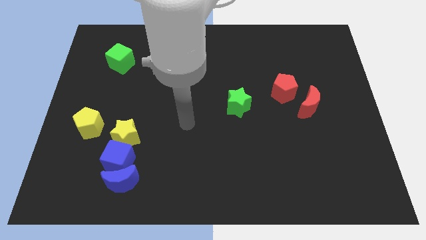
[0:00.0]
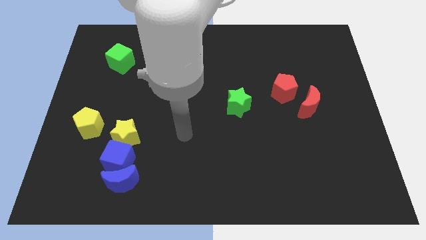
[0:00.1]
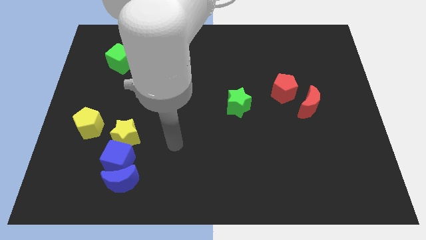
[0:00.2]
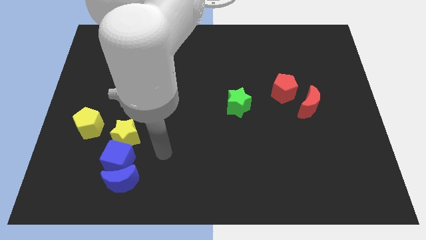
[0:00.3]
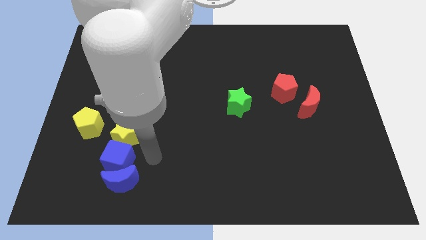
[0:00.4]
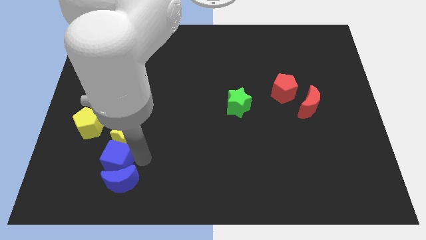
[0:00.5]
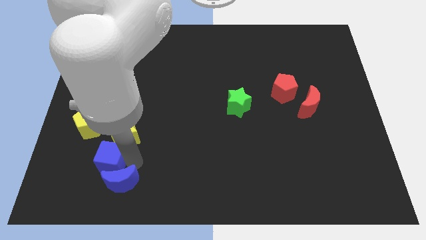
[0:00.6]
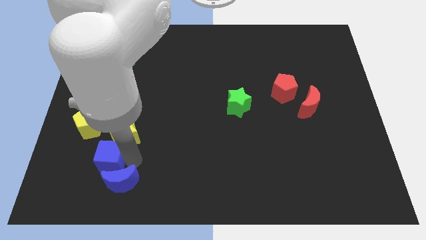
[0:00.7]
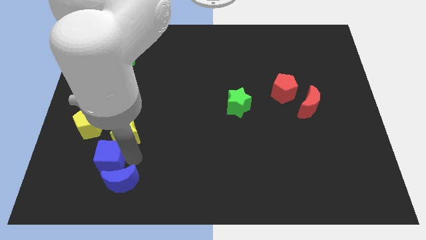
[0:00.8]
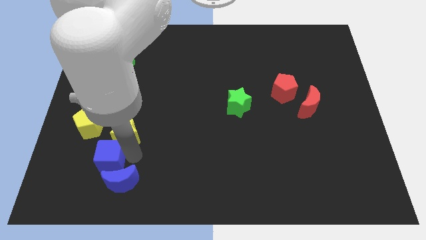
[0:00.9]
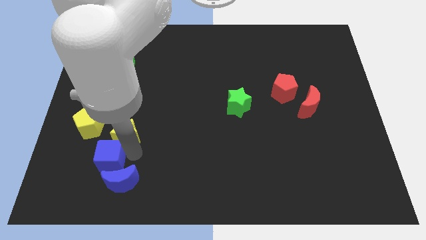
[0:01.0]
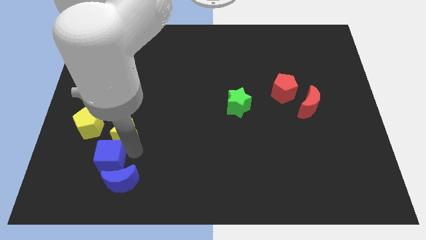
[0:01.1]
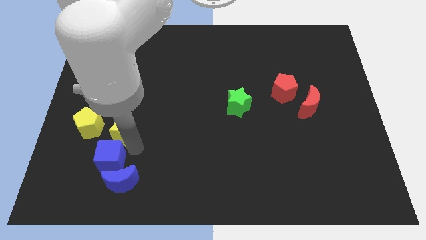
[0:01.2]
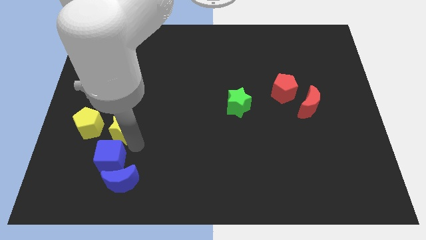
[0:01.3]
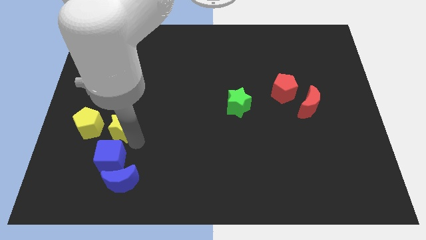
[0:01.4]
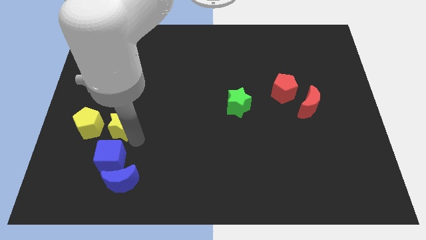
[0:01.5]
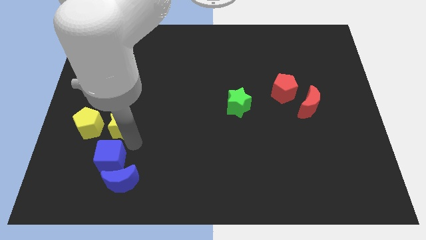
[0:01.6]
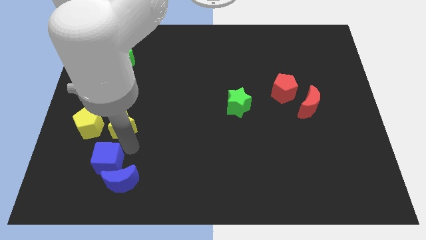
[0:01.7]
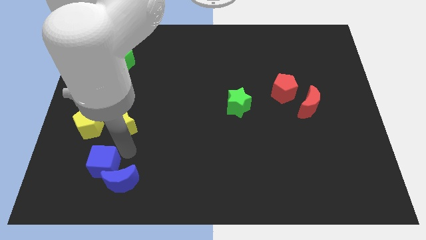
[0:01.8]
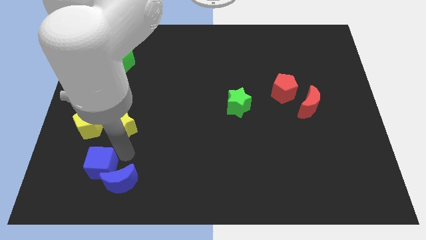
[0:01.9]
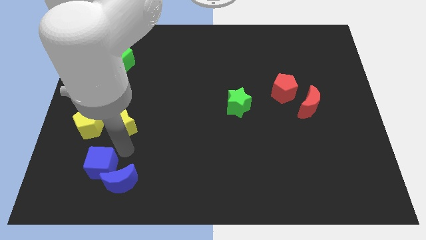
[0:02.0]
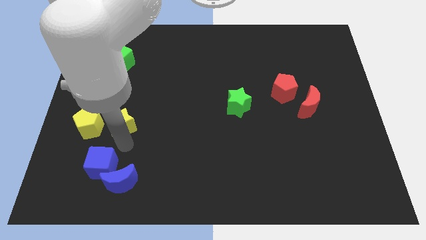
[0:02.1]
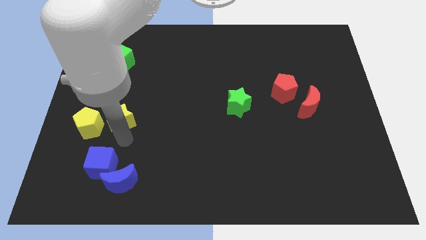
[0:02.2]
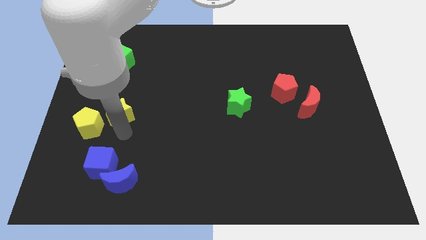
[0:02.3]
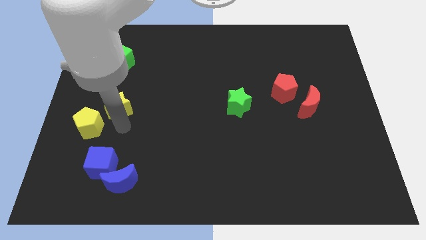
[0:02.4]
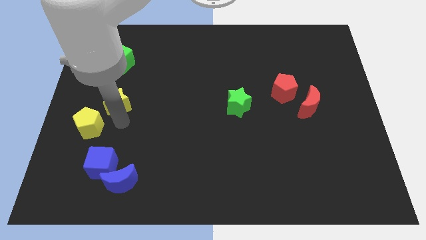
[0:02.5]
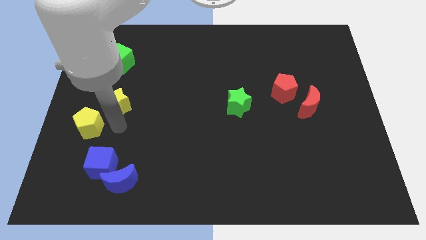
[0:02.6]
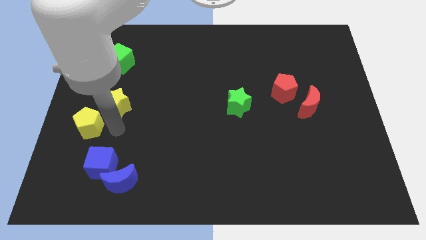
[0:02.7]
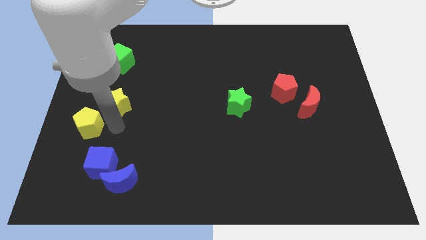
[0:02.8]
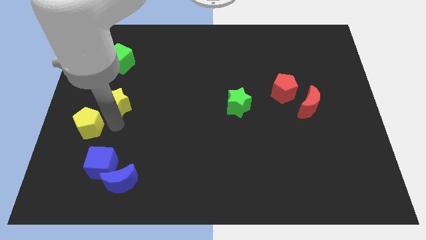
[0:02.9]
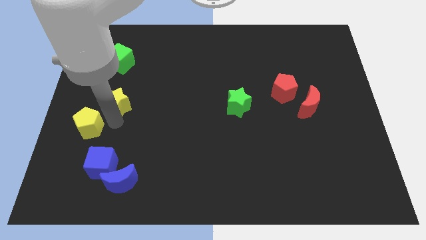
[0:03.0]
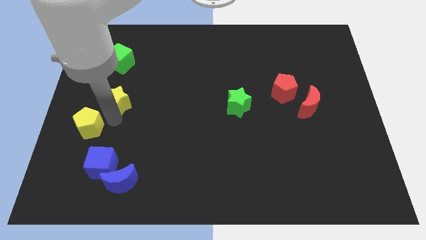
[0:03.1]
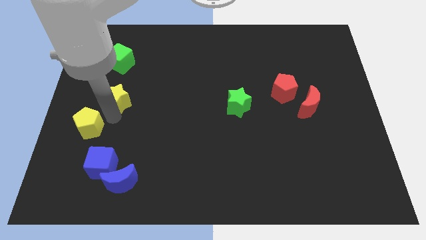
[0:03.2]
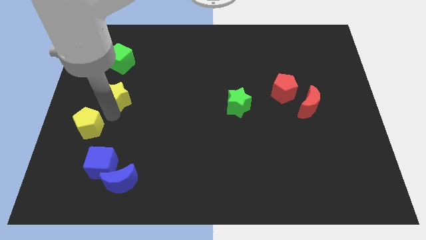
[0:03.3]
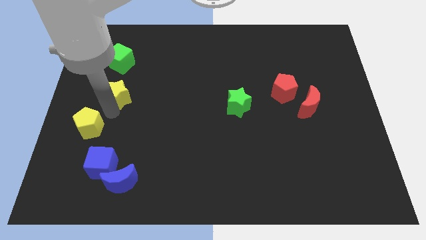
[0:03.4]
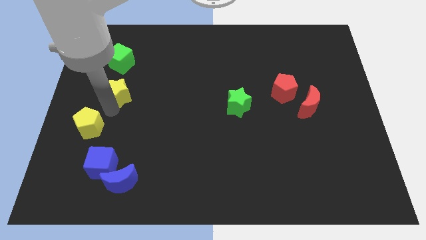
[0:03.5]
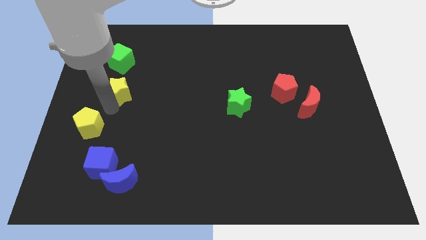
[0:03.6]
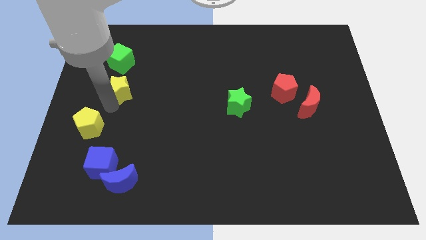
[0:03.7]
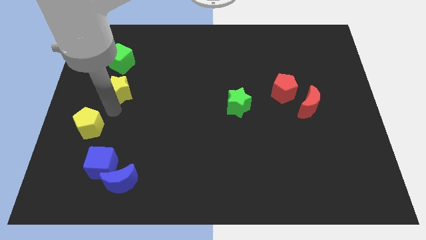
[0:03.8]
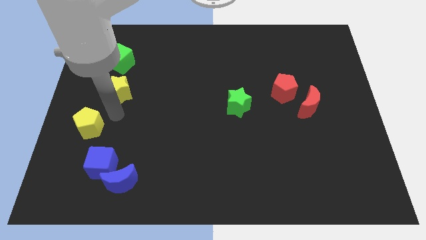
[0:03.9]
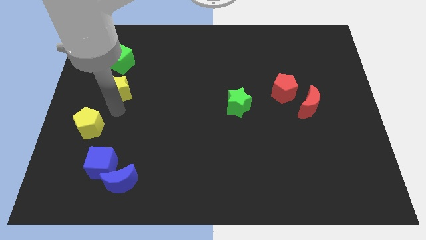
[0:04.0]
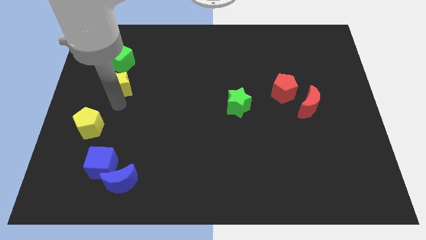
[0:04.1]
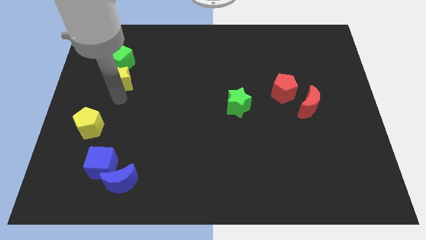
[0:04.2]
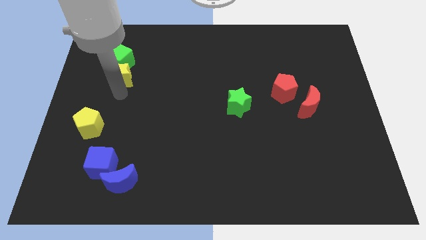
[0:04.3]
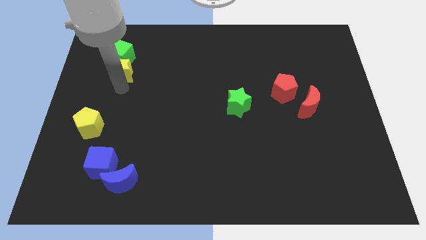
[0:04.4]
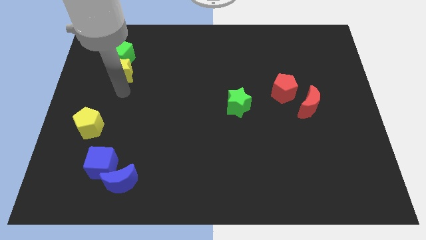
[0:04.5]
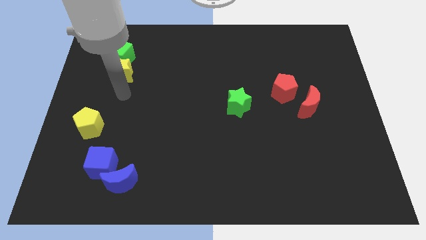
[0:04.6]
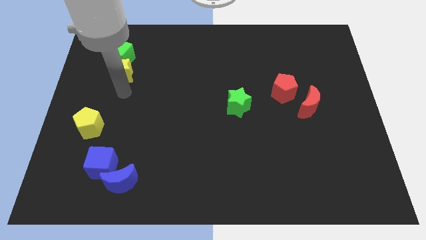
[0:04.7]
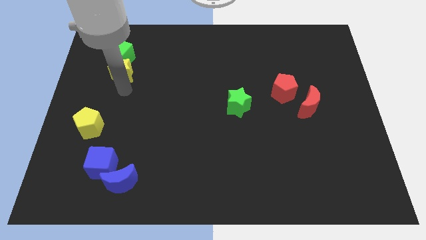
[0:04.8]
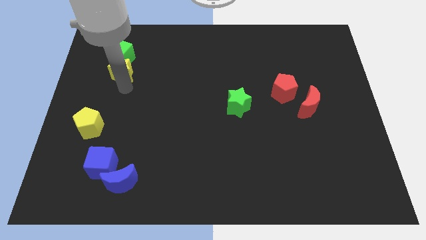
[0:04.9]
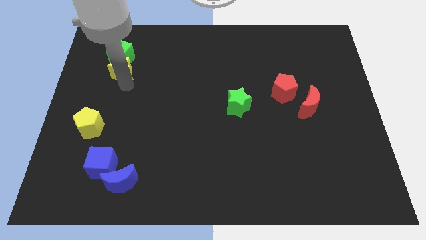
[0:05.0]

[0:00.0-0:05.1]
move the yellow star next to the green cube

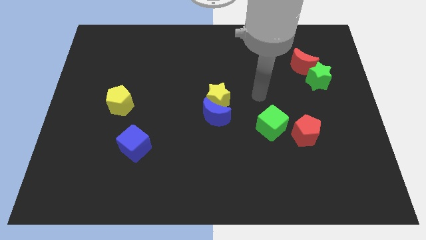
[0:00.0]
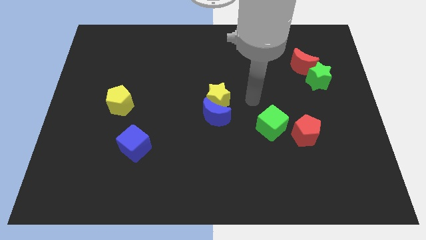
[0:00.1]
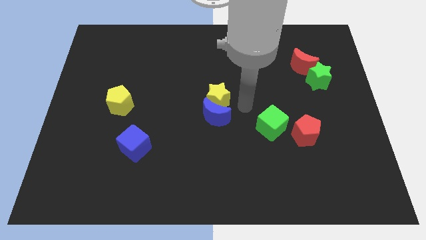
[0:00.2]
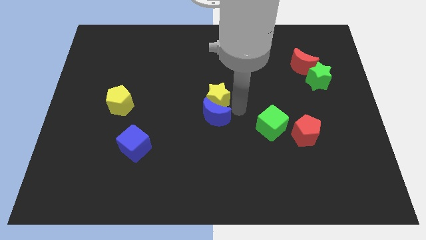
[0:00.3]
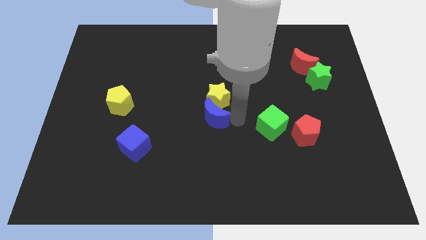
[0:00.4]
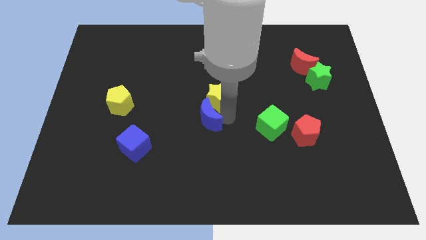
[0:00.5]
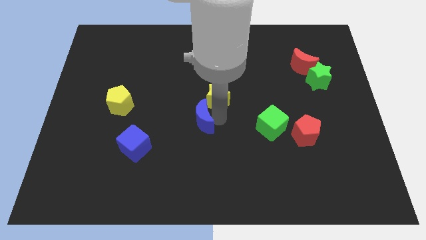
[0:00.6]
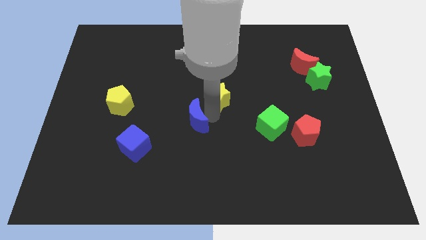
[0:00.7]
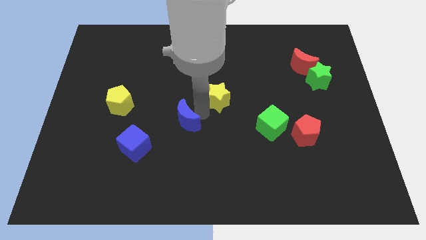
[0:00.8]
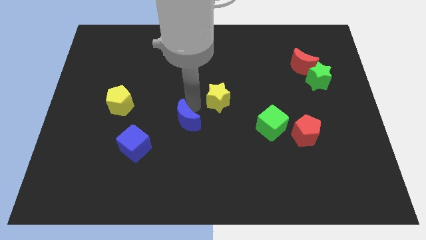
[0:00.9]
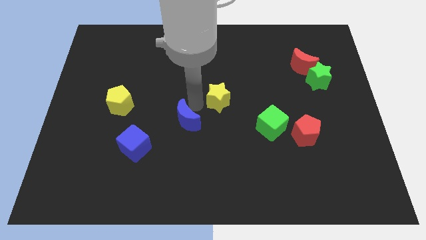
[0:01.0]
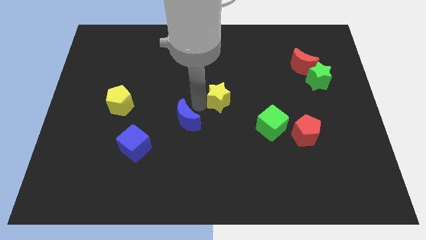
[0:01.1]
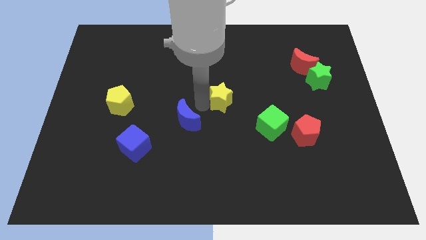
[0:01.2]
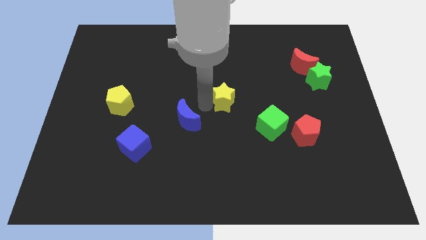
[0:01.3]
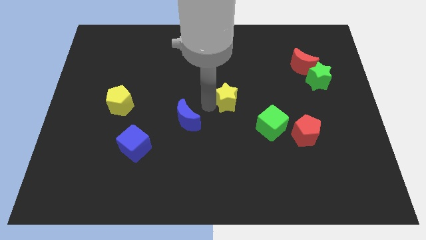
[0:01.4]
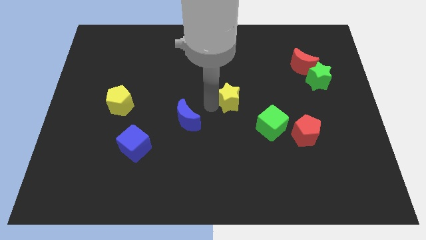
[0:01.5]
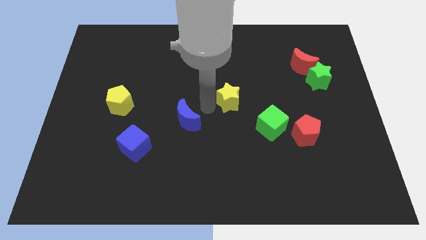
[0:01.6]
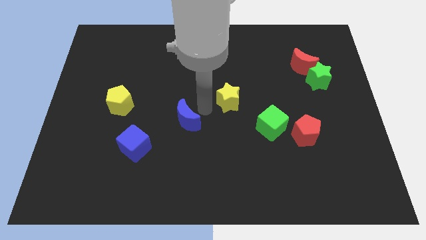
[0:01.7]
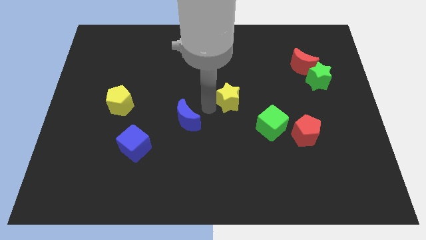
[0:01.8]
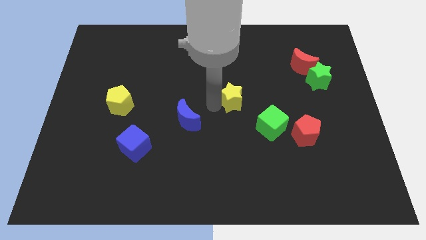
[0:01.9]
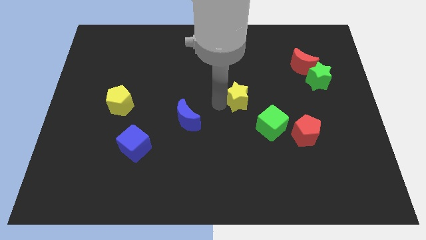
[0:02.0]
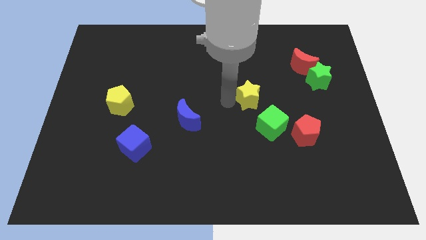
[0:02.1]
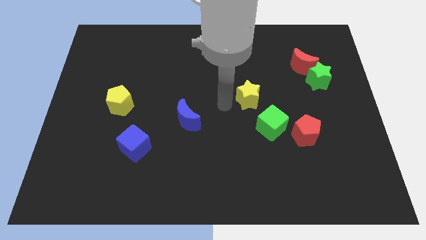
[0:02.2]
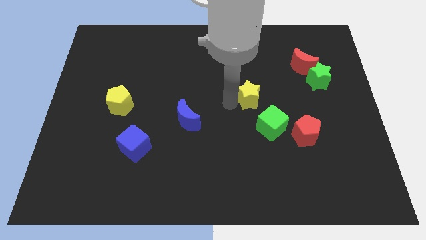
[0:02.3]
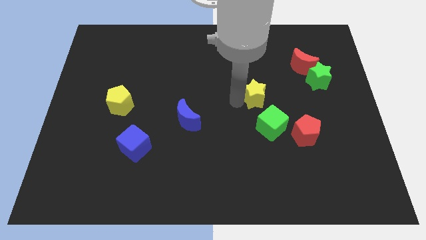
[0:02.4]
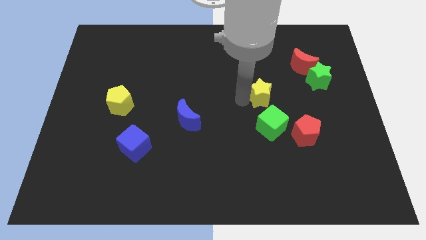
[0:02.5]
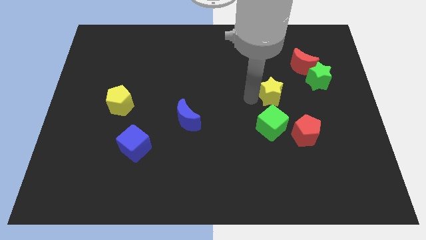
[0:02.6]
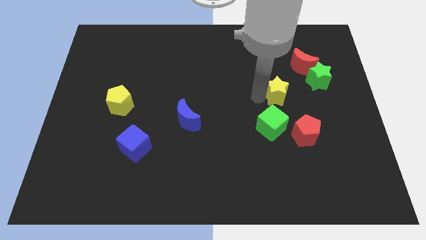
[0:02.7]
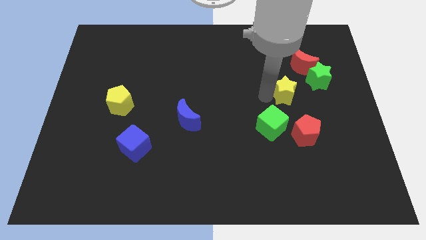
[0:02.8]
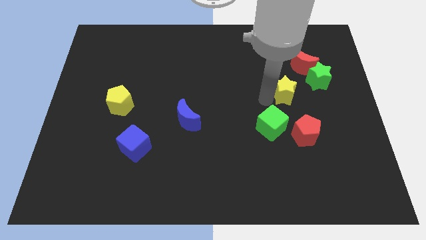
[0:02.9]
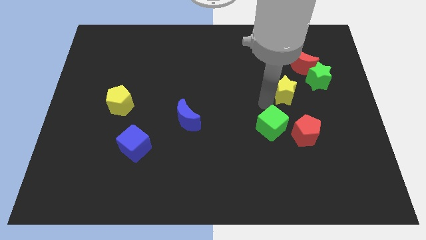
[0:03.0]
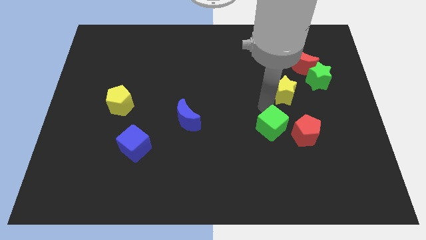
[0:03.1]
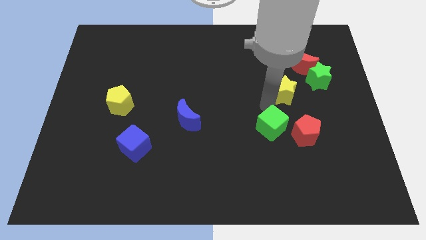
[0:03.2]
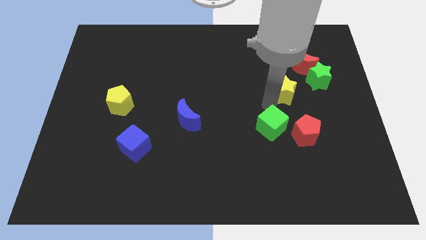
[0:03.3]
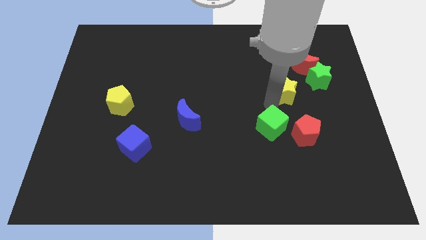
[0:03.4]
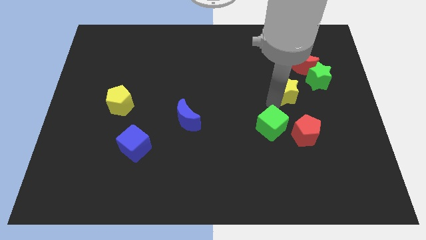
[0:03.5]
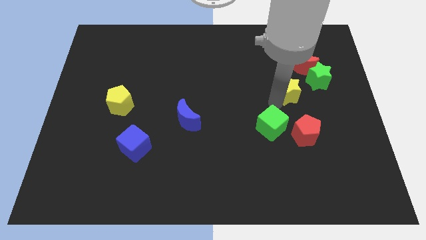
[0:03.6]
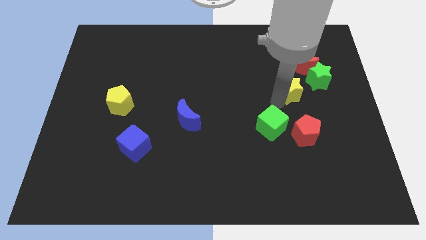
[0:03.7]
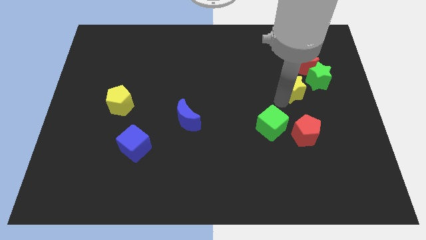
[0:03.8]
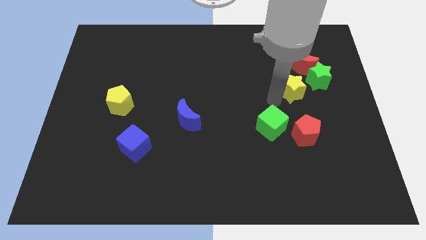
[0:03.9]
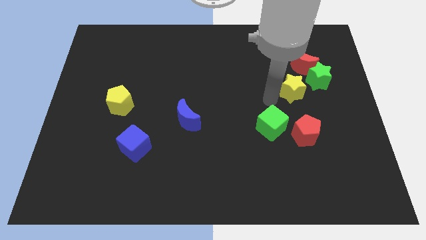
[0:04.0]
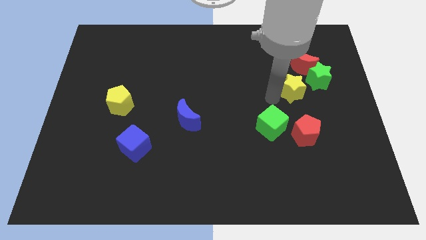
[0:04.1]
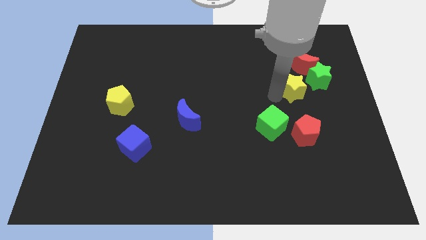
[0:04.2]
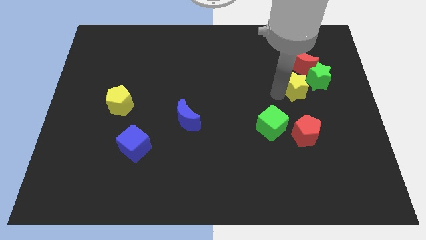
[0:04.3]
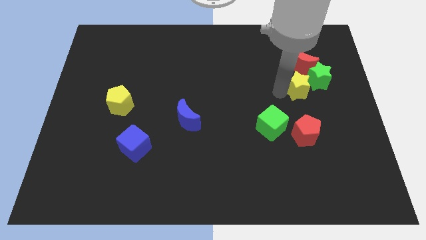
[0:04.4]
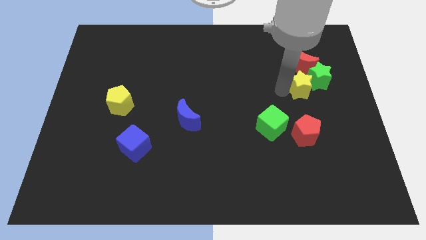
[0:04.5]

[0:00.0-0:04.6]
move the yellow star to the green star
